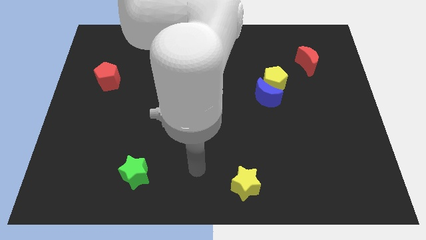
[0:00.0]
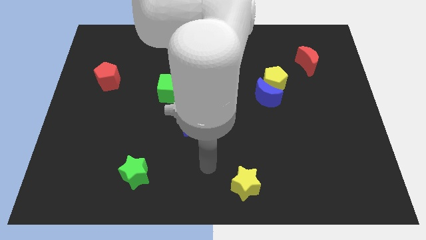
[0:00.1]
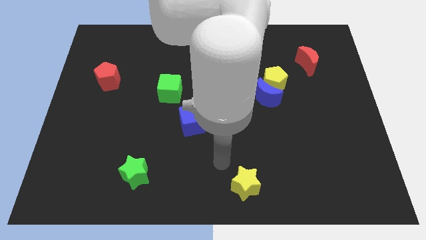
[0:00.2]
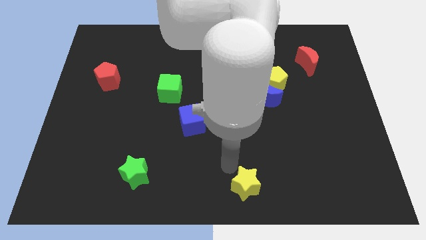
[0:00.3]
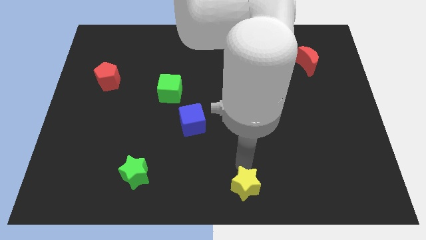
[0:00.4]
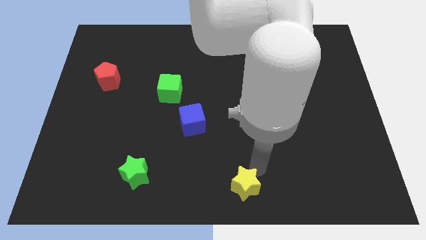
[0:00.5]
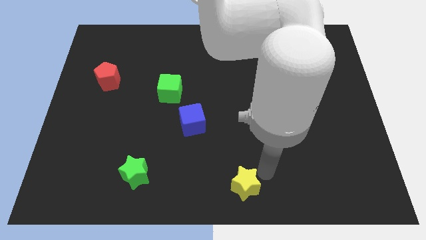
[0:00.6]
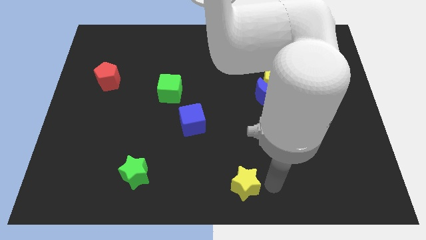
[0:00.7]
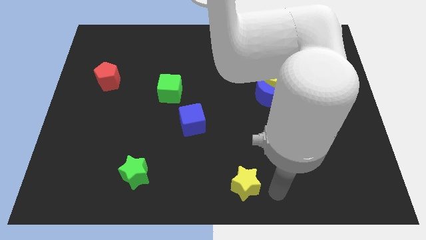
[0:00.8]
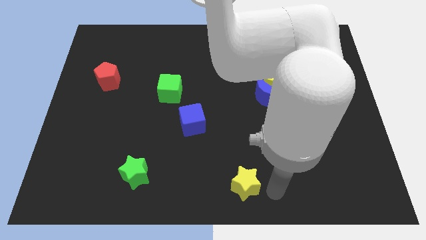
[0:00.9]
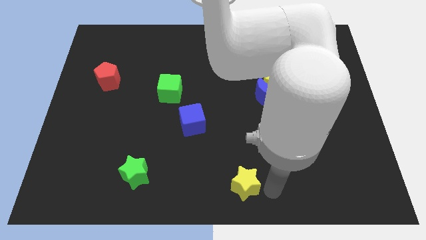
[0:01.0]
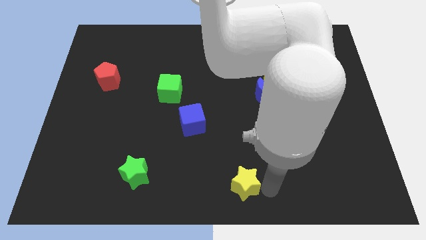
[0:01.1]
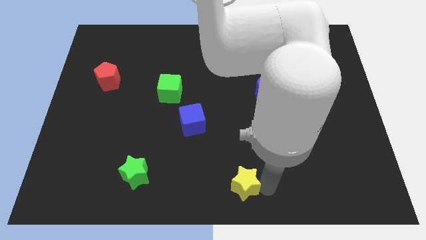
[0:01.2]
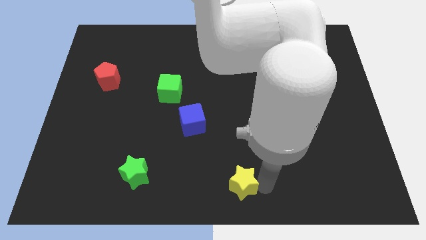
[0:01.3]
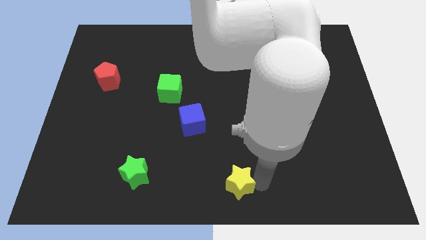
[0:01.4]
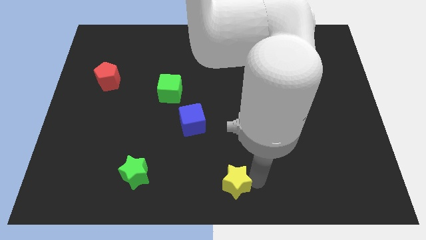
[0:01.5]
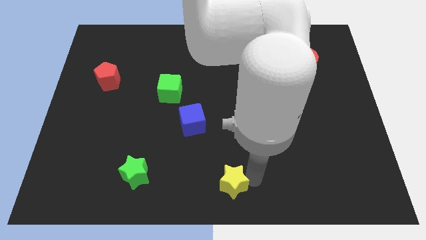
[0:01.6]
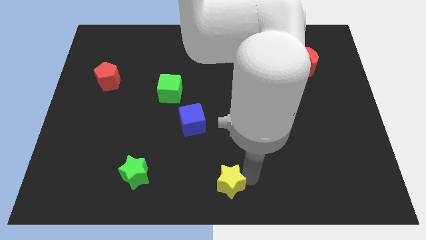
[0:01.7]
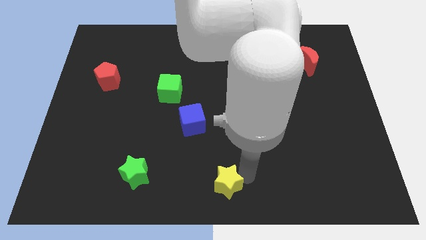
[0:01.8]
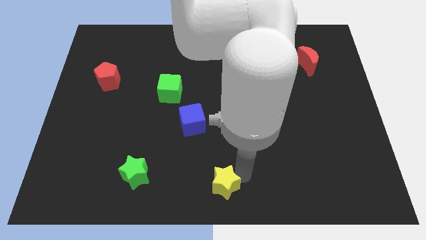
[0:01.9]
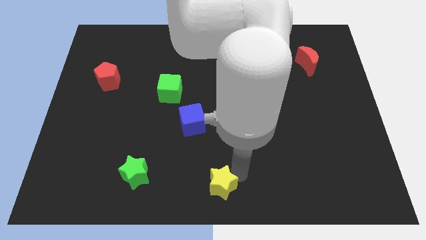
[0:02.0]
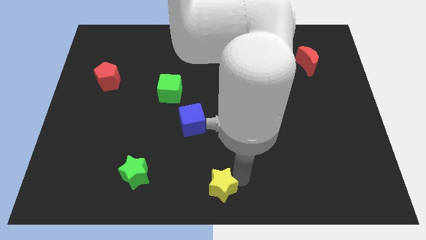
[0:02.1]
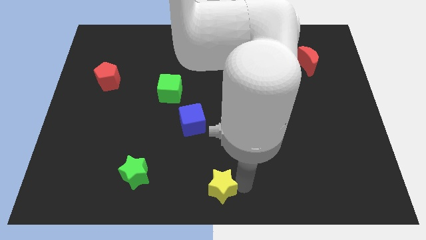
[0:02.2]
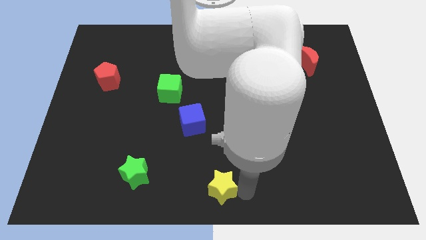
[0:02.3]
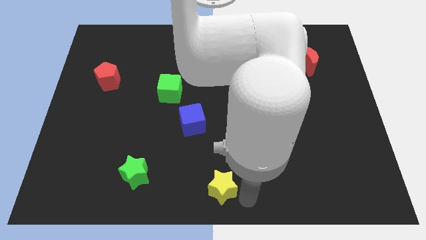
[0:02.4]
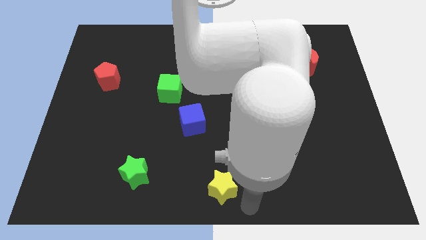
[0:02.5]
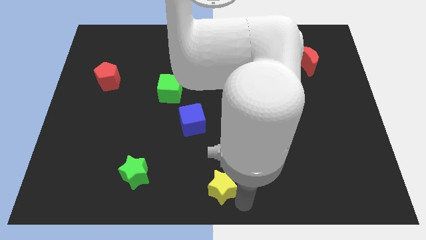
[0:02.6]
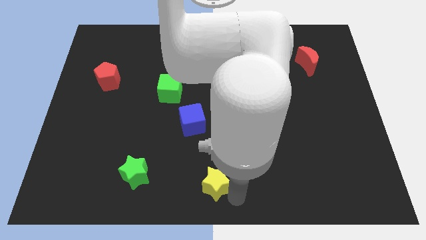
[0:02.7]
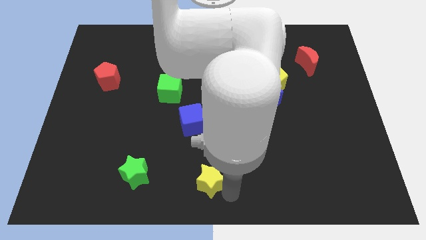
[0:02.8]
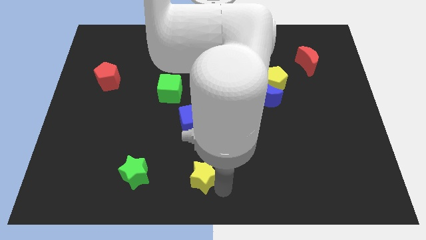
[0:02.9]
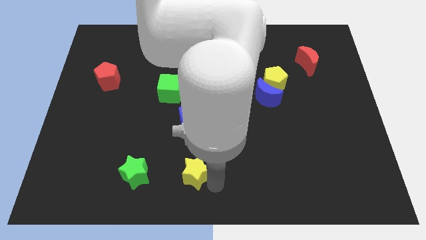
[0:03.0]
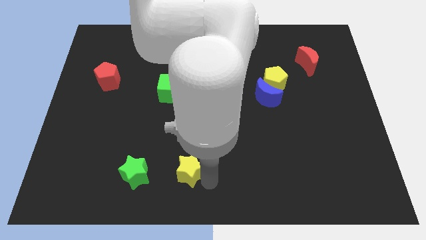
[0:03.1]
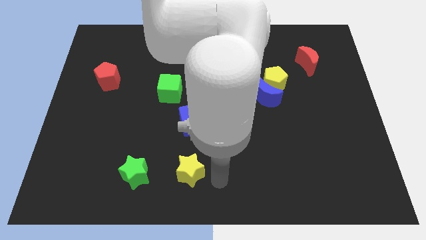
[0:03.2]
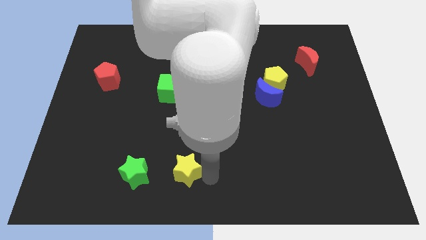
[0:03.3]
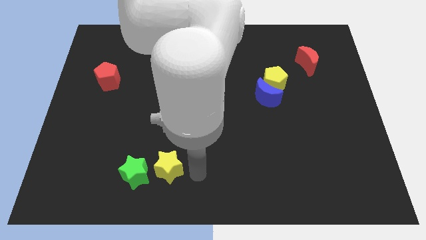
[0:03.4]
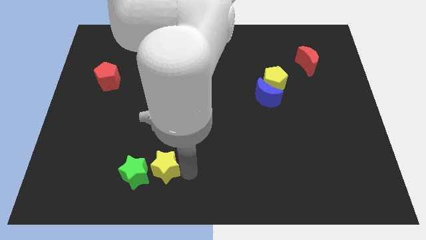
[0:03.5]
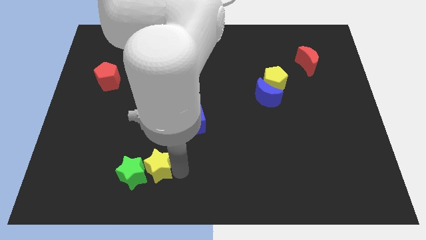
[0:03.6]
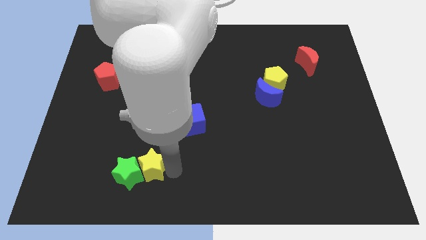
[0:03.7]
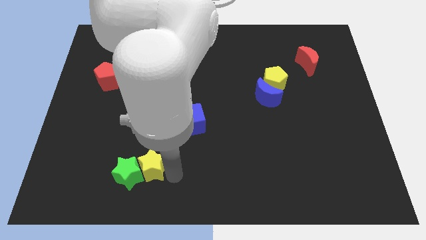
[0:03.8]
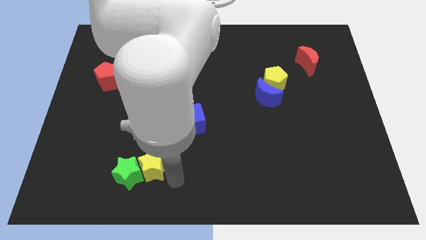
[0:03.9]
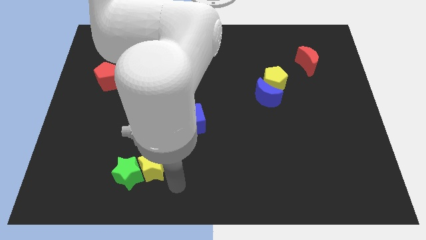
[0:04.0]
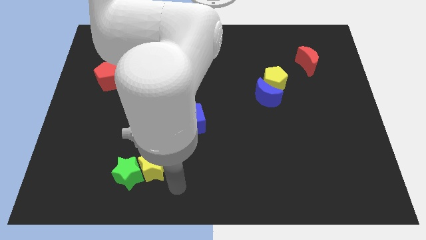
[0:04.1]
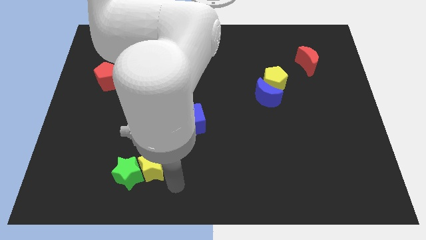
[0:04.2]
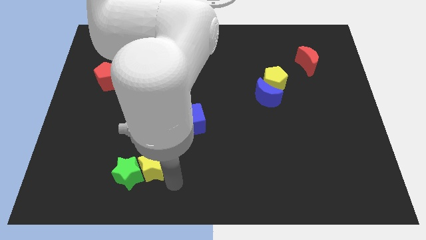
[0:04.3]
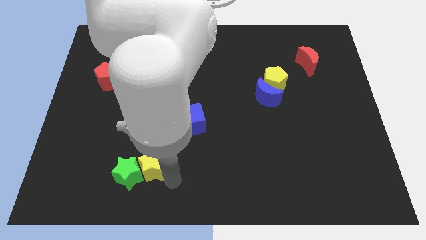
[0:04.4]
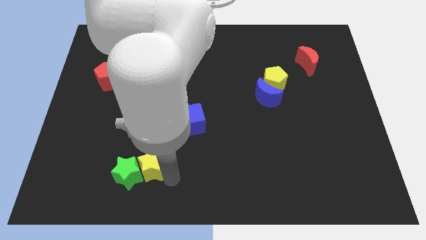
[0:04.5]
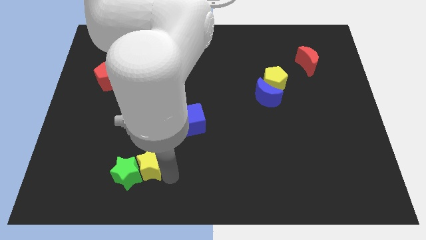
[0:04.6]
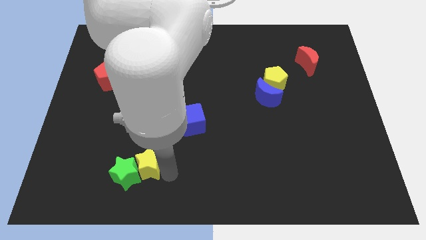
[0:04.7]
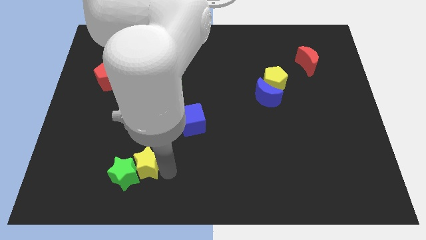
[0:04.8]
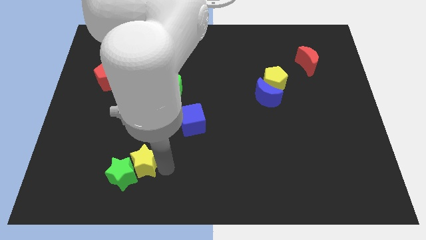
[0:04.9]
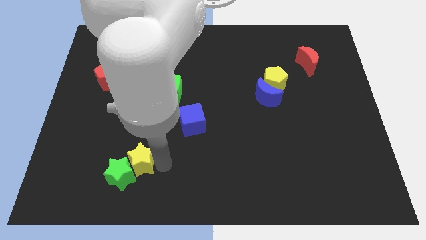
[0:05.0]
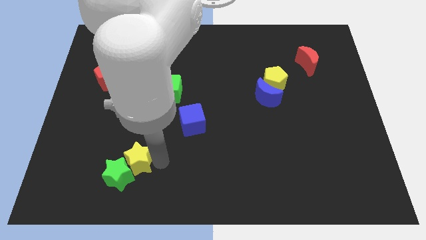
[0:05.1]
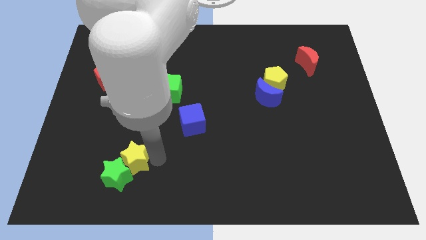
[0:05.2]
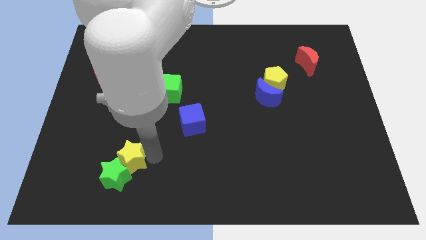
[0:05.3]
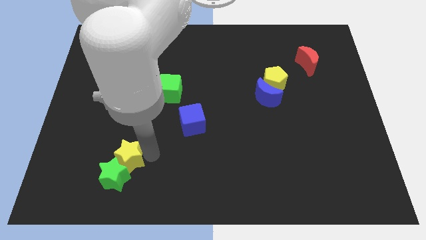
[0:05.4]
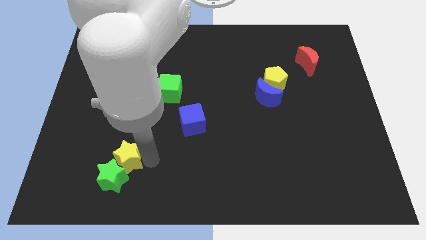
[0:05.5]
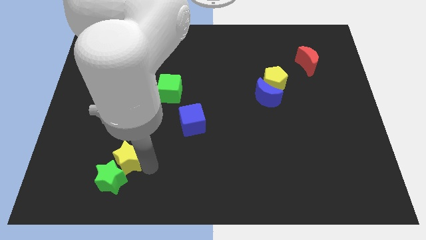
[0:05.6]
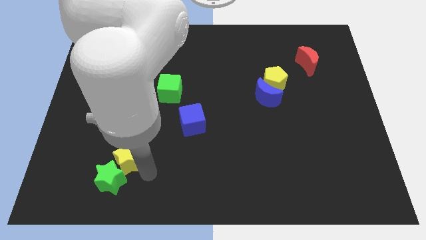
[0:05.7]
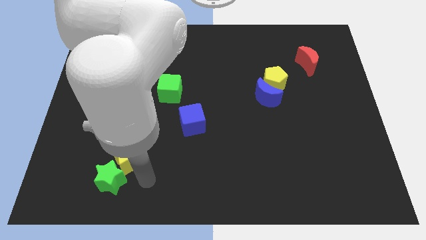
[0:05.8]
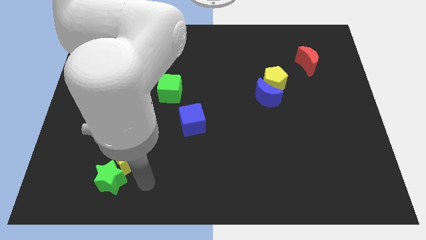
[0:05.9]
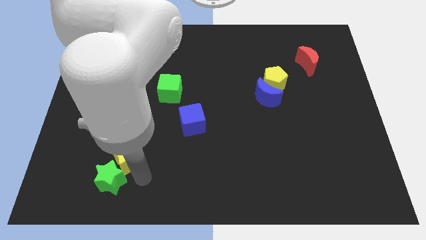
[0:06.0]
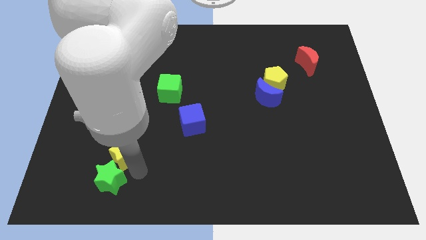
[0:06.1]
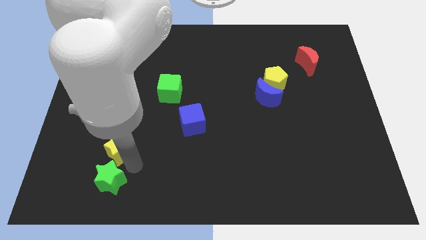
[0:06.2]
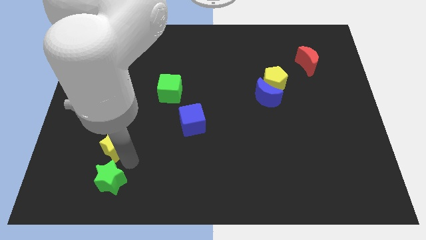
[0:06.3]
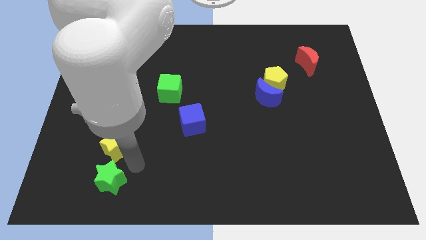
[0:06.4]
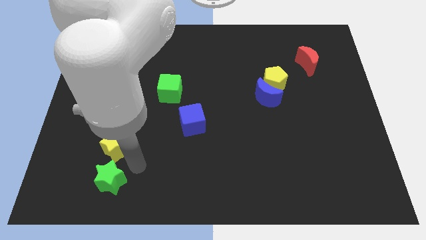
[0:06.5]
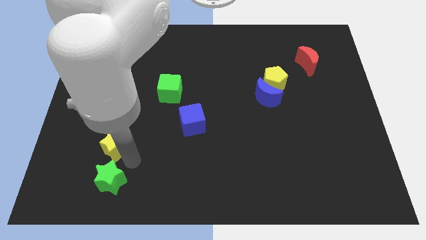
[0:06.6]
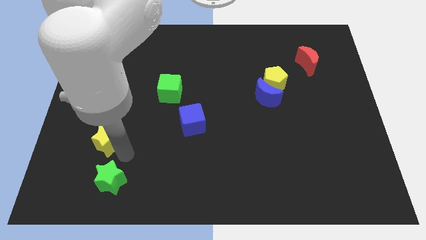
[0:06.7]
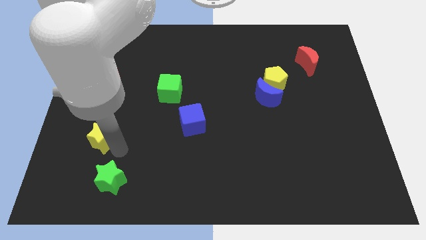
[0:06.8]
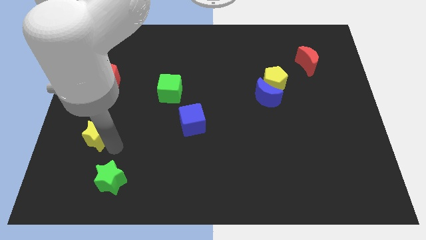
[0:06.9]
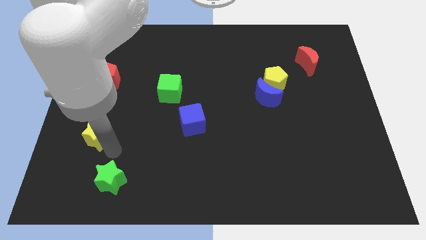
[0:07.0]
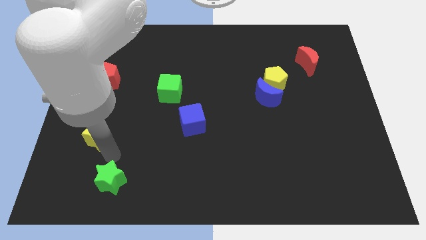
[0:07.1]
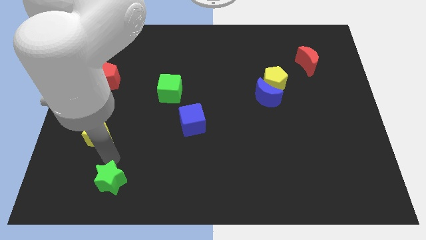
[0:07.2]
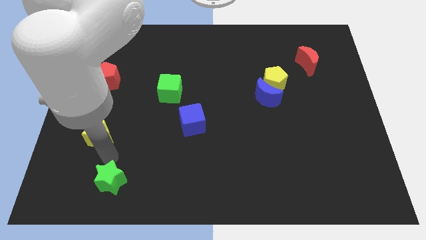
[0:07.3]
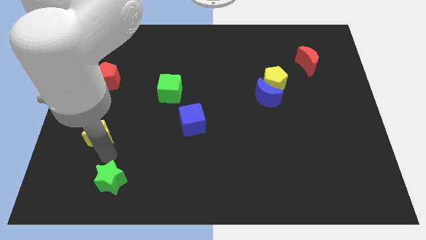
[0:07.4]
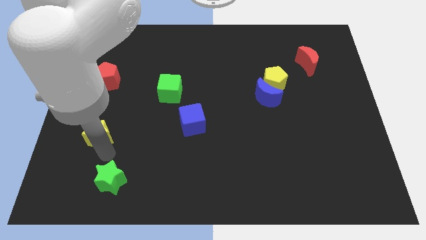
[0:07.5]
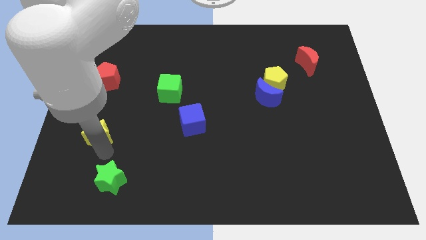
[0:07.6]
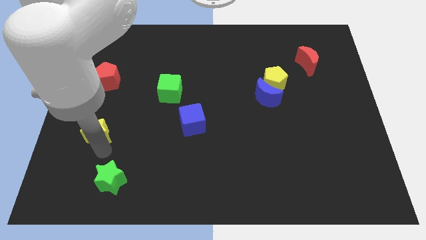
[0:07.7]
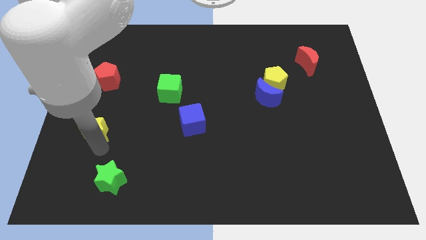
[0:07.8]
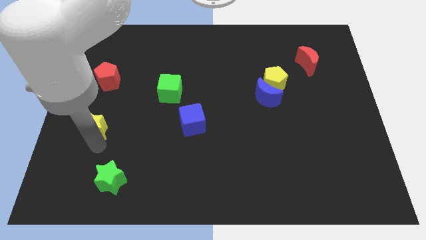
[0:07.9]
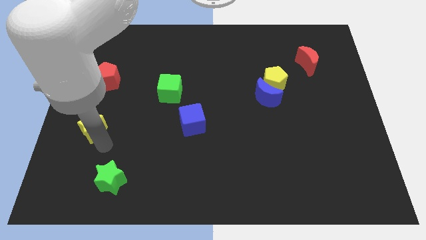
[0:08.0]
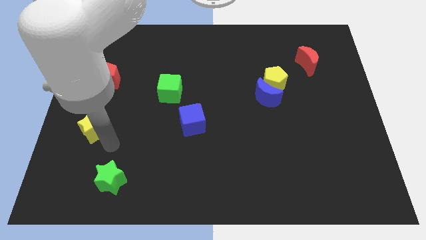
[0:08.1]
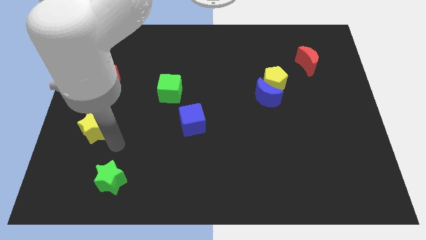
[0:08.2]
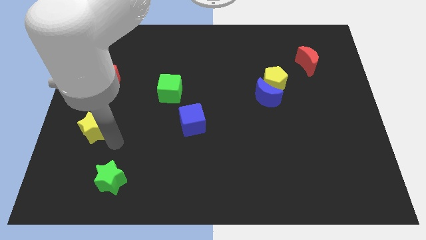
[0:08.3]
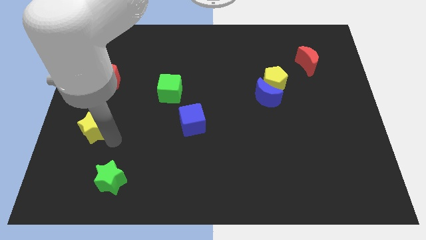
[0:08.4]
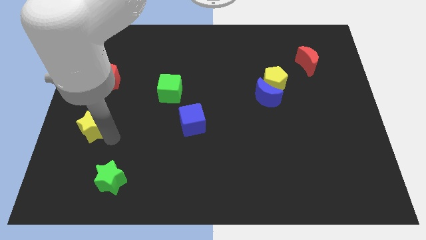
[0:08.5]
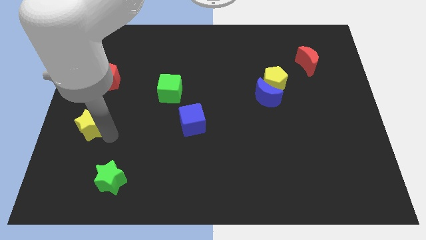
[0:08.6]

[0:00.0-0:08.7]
slide the yellow star to the left side
